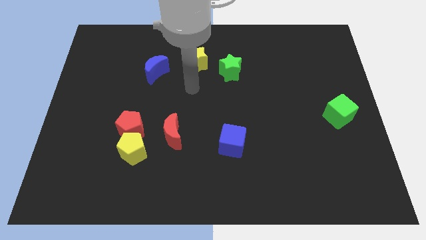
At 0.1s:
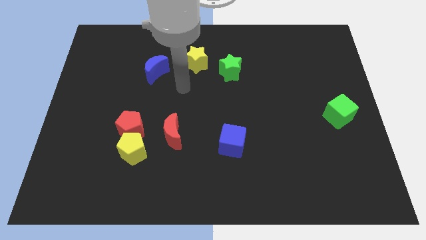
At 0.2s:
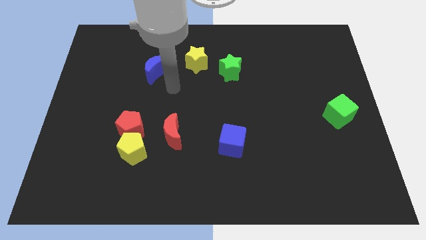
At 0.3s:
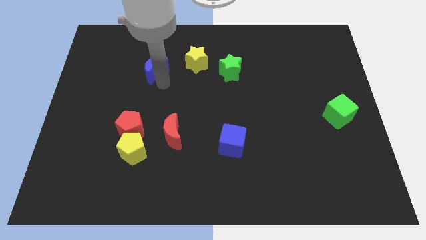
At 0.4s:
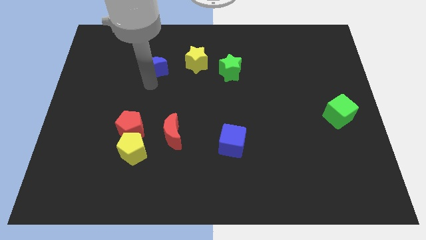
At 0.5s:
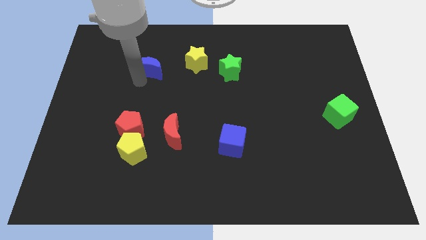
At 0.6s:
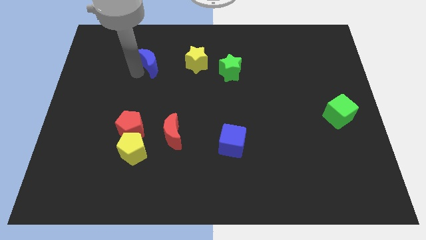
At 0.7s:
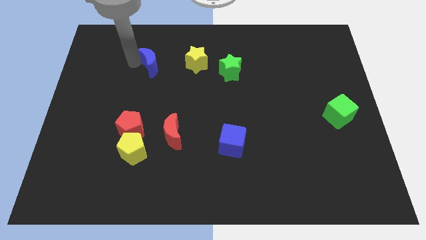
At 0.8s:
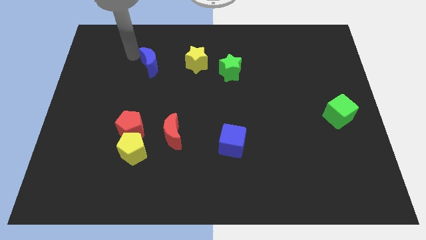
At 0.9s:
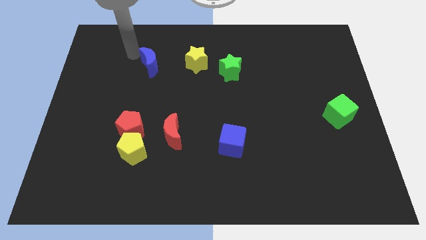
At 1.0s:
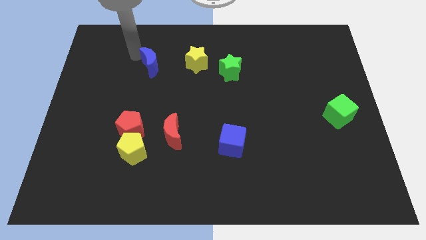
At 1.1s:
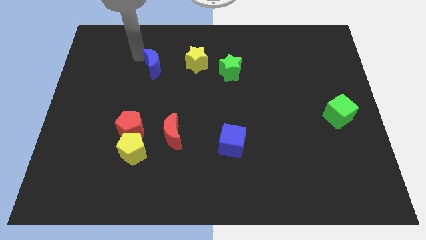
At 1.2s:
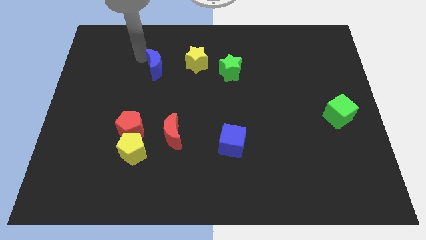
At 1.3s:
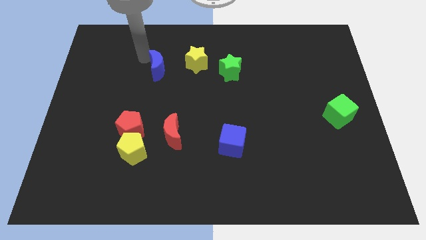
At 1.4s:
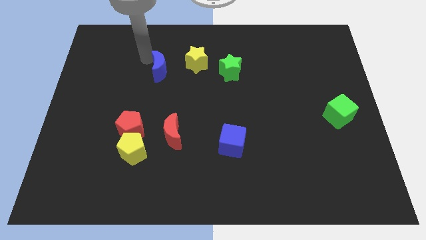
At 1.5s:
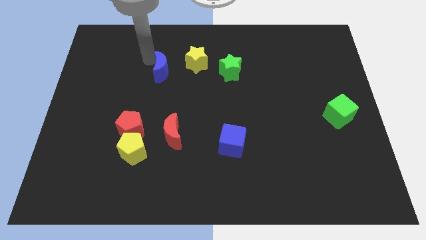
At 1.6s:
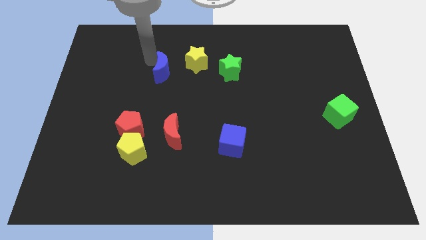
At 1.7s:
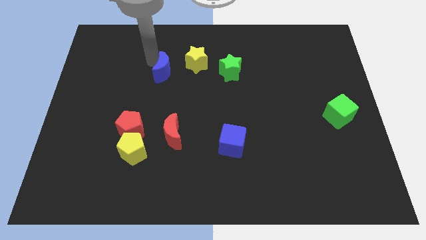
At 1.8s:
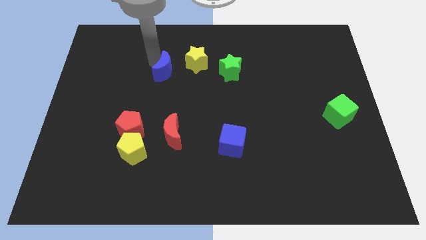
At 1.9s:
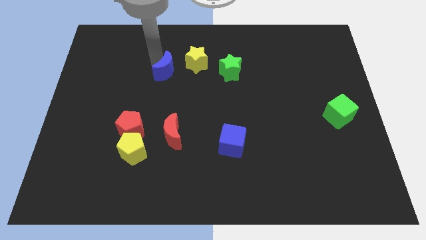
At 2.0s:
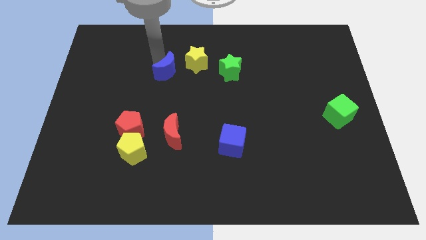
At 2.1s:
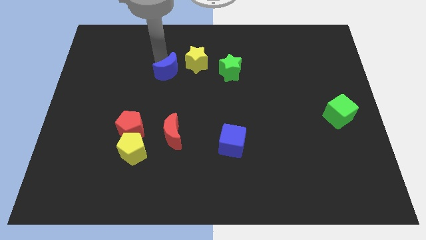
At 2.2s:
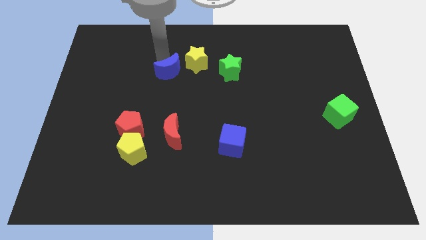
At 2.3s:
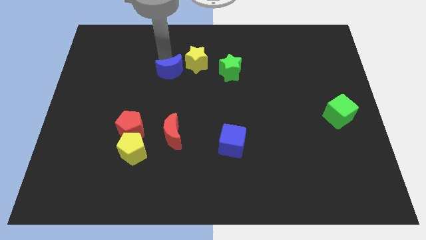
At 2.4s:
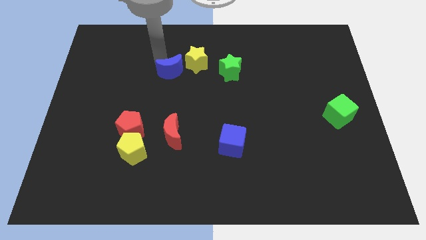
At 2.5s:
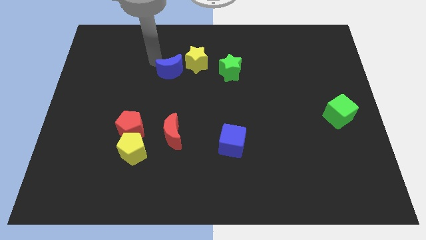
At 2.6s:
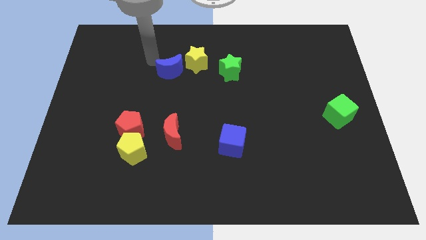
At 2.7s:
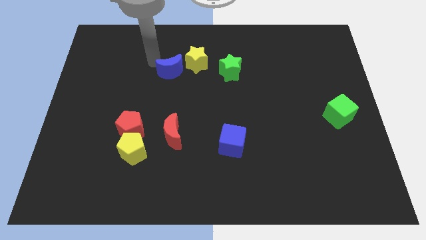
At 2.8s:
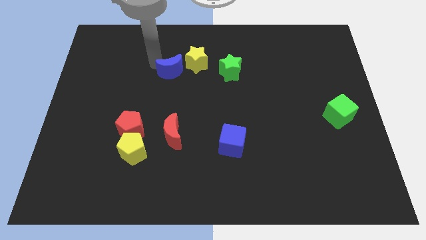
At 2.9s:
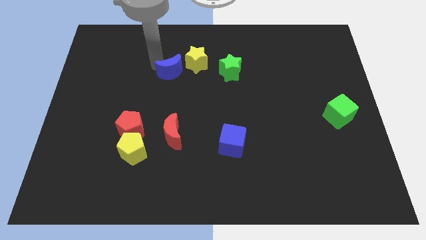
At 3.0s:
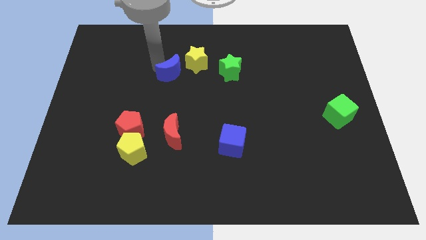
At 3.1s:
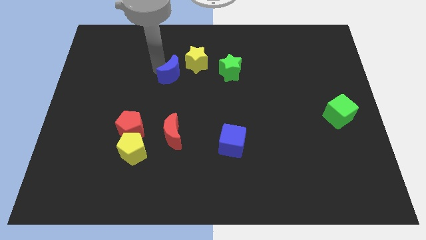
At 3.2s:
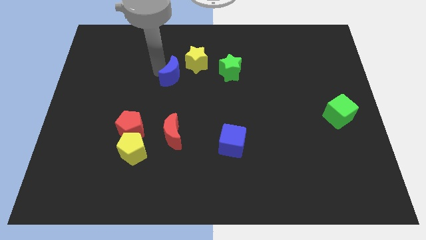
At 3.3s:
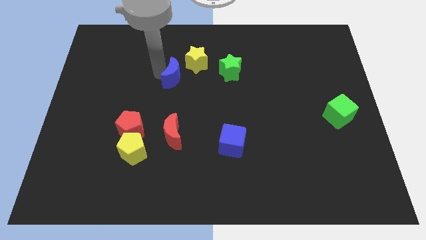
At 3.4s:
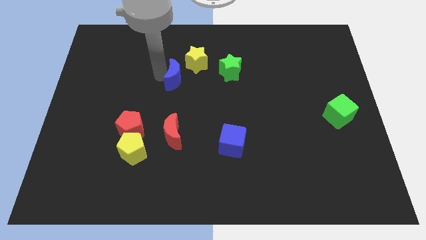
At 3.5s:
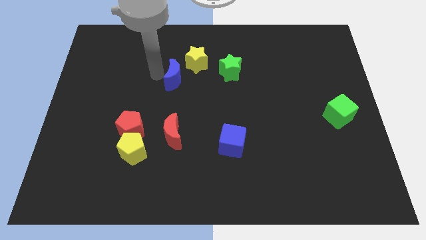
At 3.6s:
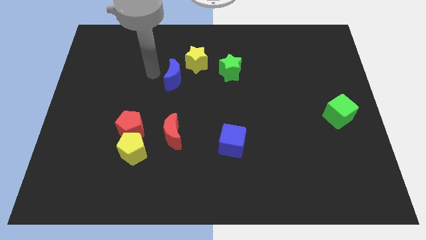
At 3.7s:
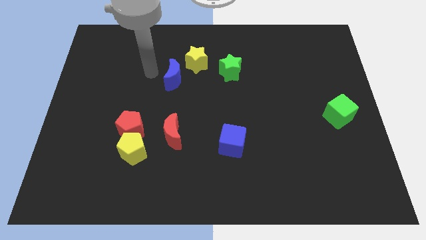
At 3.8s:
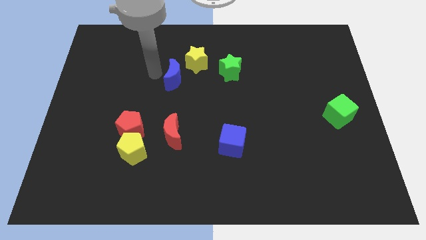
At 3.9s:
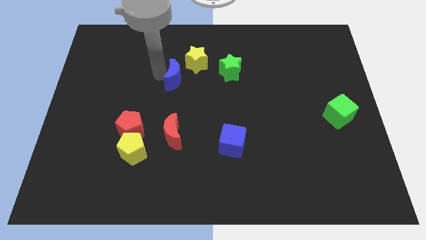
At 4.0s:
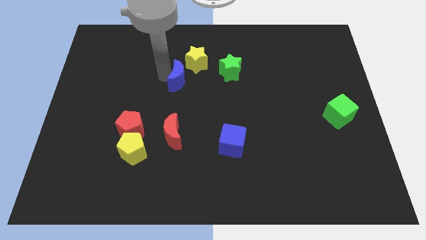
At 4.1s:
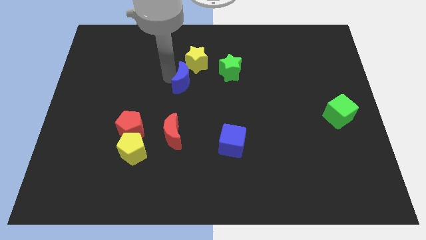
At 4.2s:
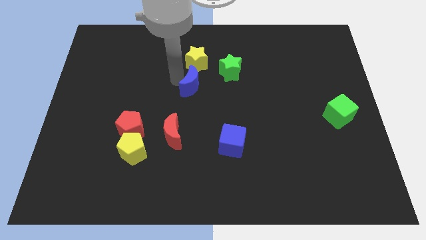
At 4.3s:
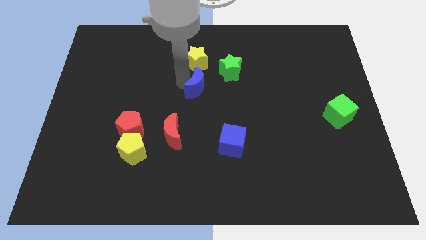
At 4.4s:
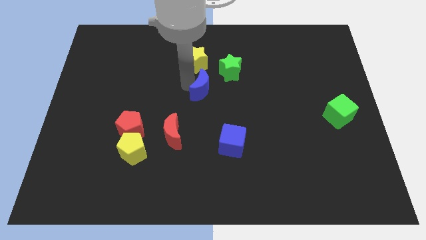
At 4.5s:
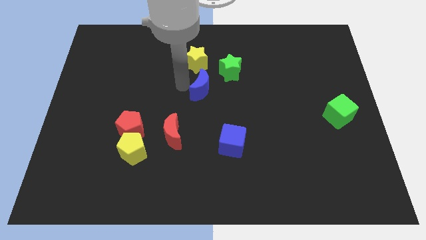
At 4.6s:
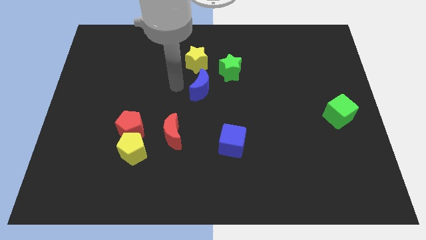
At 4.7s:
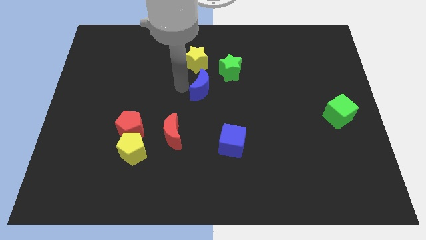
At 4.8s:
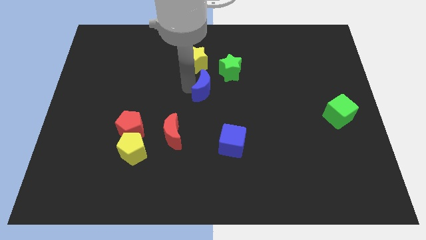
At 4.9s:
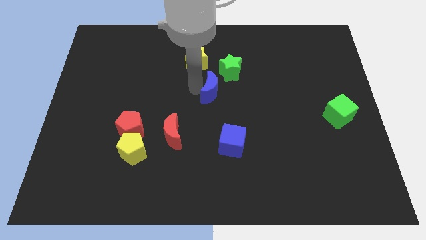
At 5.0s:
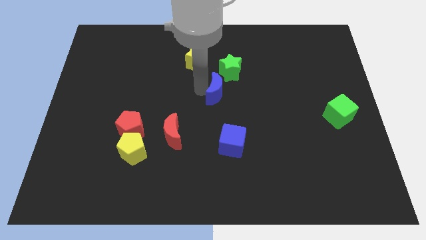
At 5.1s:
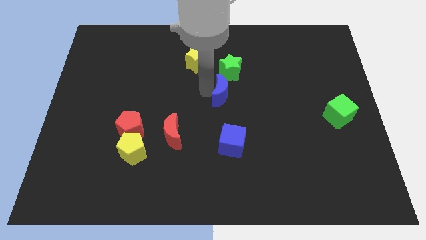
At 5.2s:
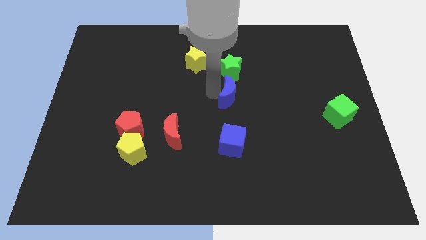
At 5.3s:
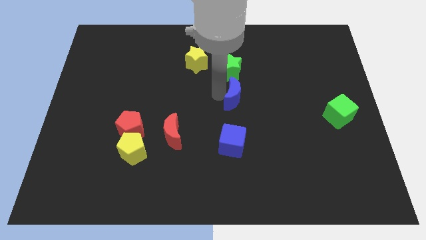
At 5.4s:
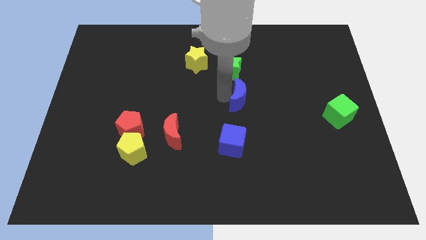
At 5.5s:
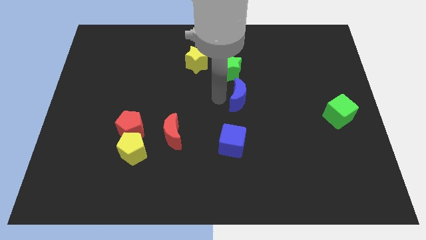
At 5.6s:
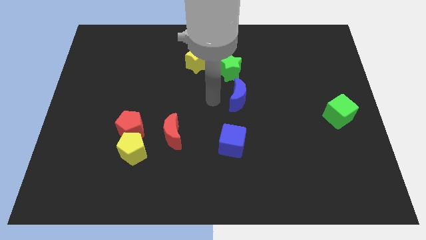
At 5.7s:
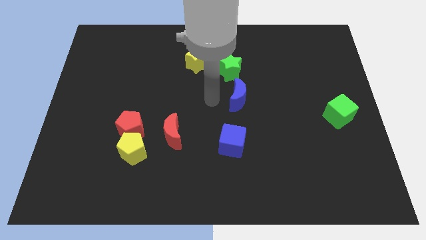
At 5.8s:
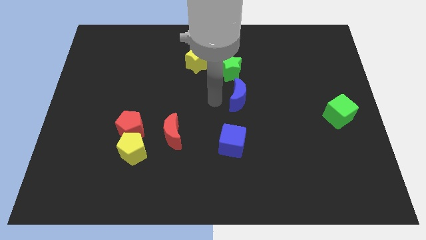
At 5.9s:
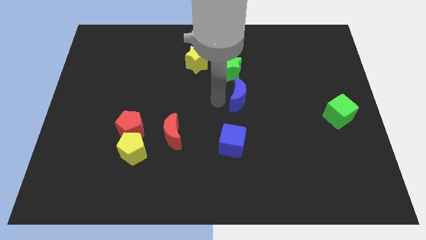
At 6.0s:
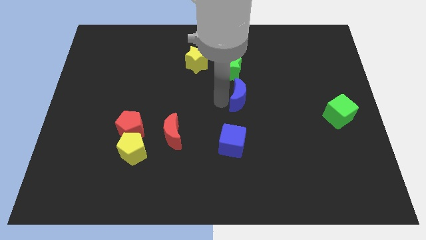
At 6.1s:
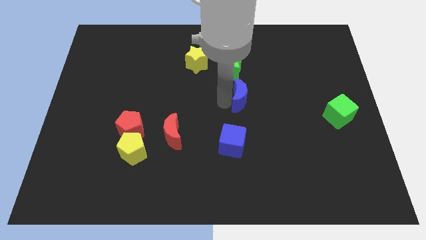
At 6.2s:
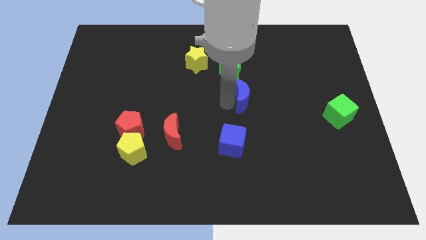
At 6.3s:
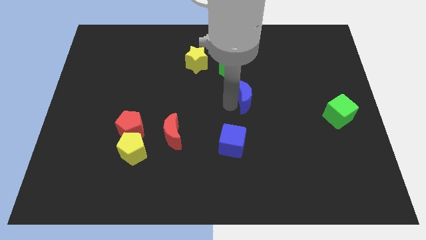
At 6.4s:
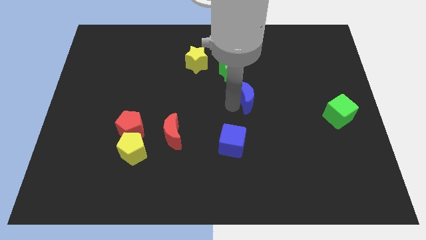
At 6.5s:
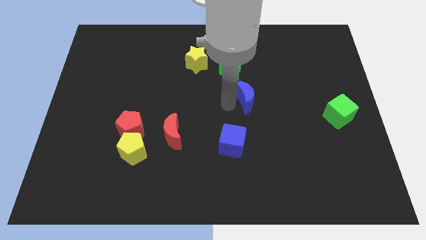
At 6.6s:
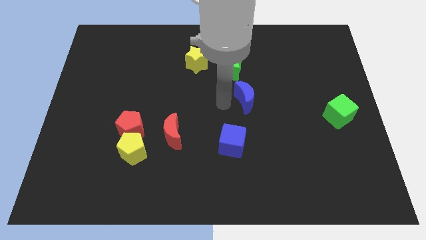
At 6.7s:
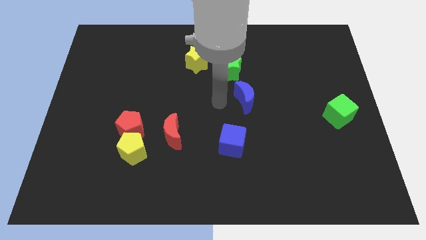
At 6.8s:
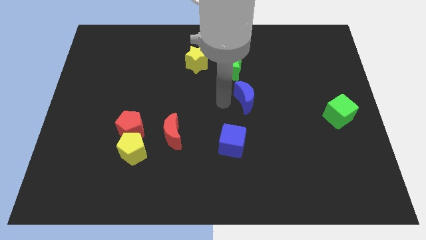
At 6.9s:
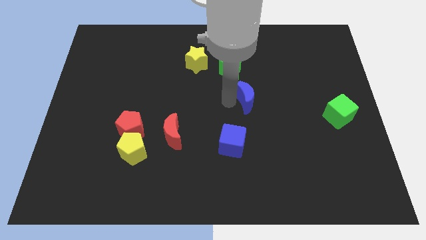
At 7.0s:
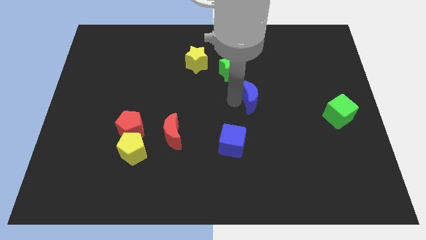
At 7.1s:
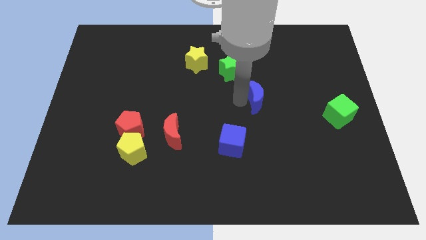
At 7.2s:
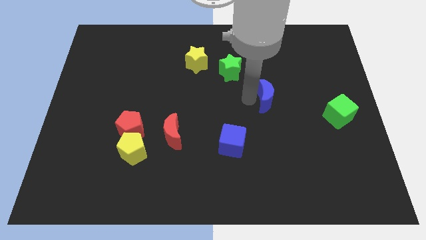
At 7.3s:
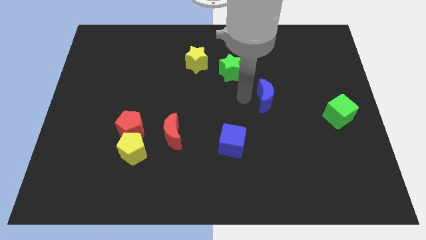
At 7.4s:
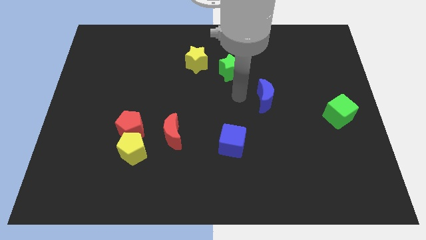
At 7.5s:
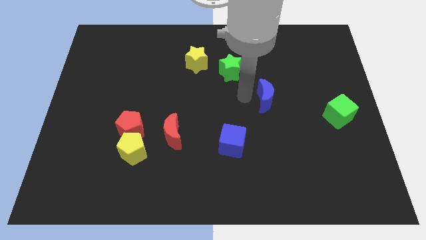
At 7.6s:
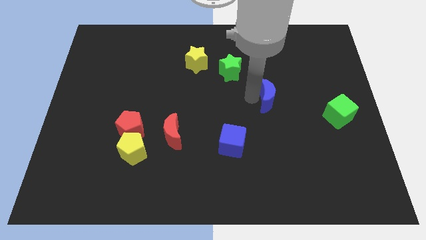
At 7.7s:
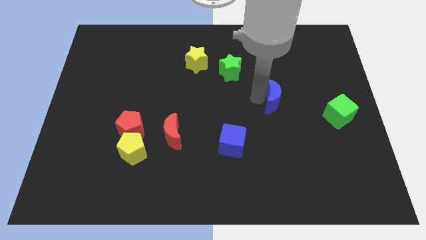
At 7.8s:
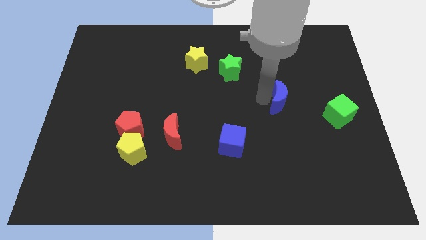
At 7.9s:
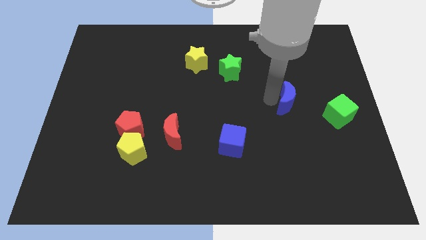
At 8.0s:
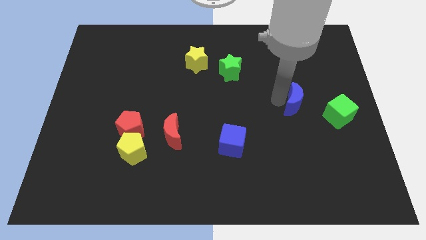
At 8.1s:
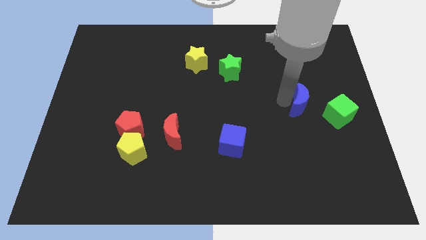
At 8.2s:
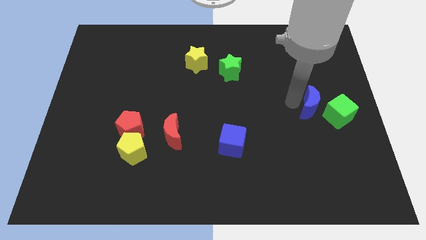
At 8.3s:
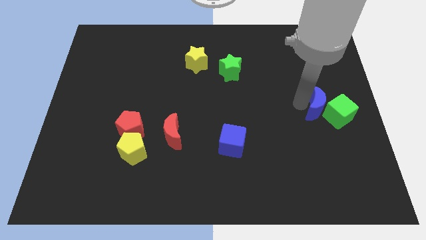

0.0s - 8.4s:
put the blue moon close to the green cube
